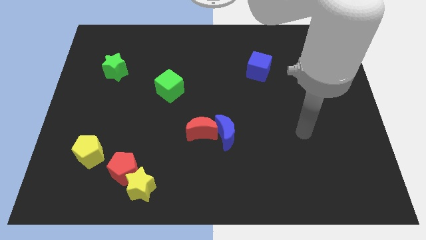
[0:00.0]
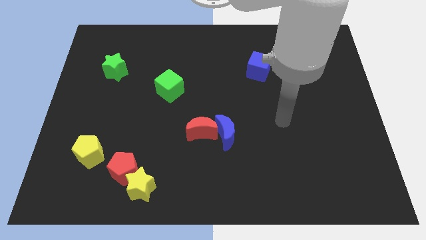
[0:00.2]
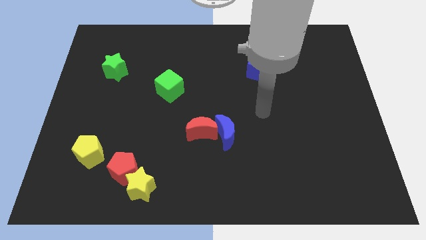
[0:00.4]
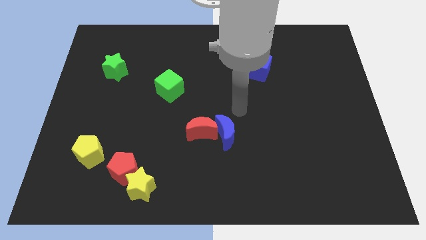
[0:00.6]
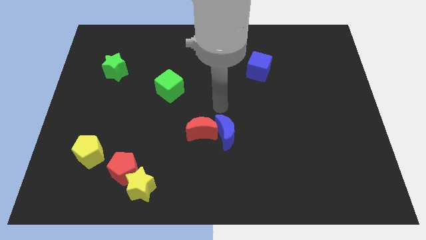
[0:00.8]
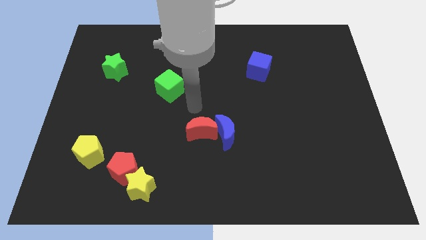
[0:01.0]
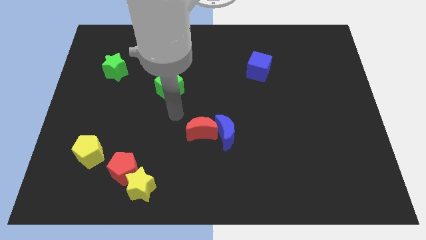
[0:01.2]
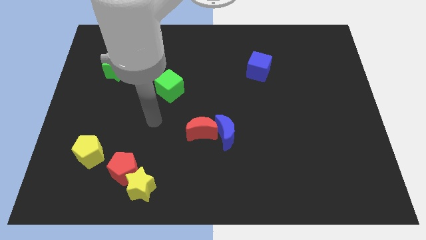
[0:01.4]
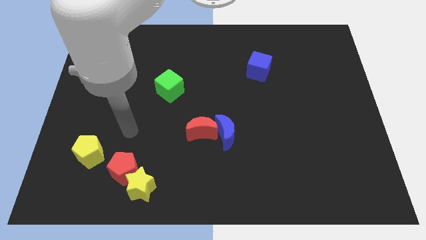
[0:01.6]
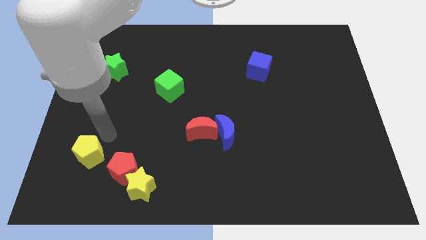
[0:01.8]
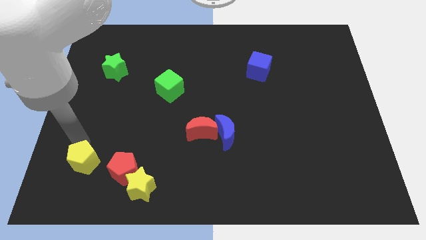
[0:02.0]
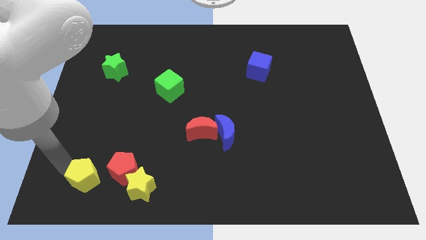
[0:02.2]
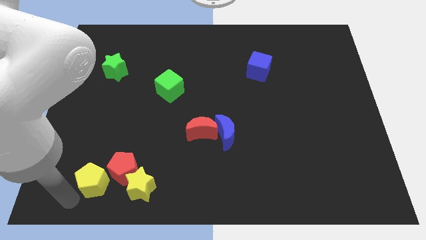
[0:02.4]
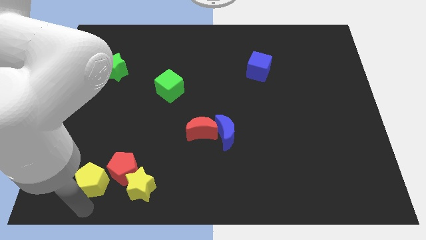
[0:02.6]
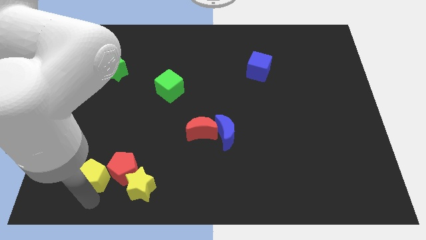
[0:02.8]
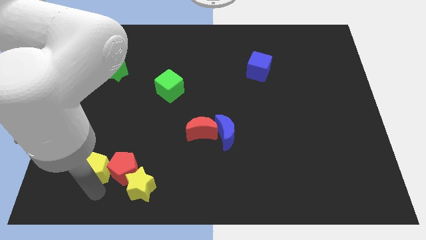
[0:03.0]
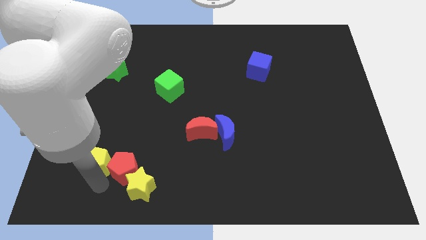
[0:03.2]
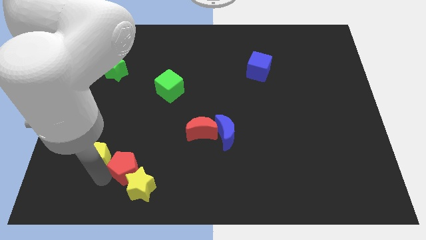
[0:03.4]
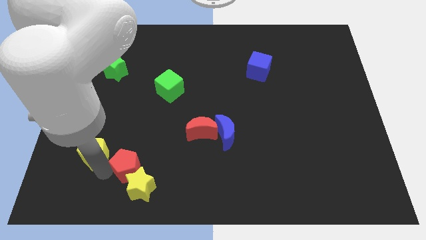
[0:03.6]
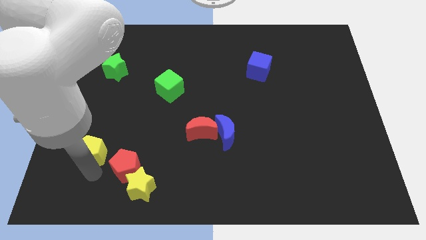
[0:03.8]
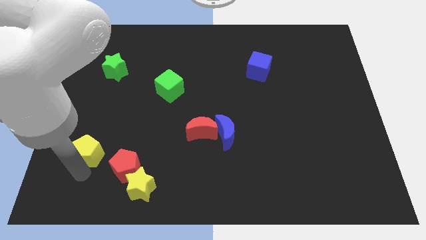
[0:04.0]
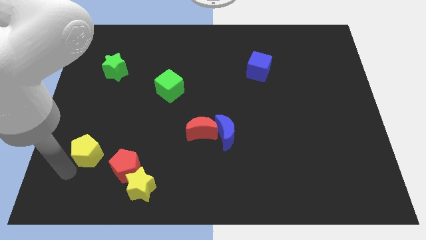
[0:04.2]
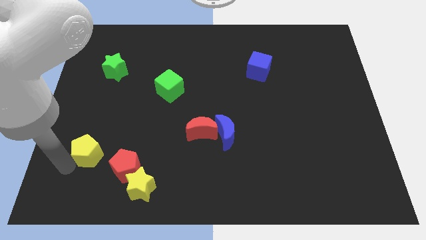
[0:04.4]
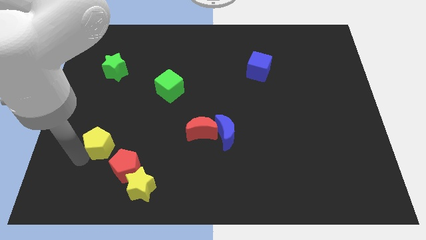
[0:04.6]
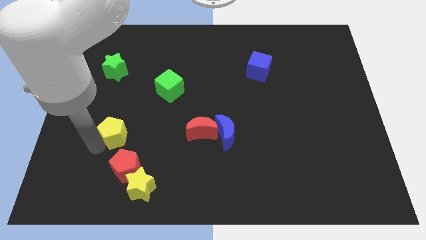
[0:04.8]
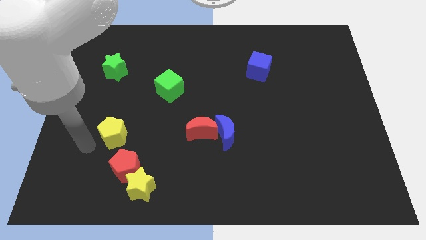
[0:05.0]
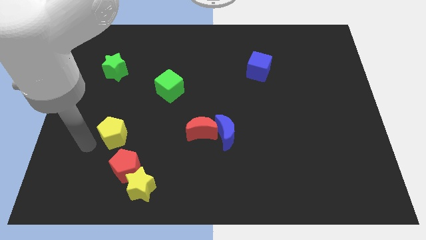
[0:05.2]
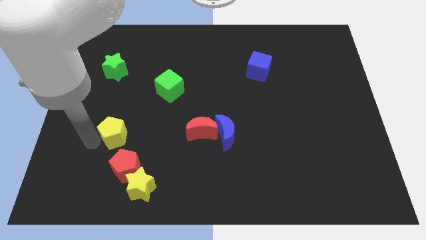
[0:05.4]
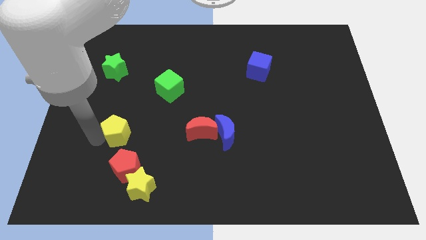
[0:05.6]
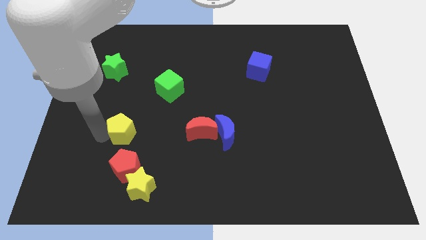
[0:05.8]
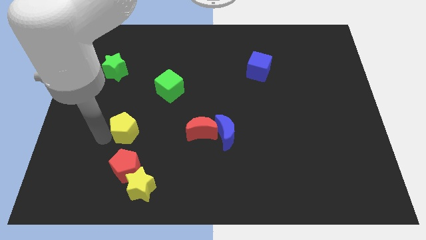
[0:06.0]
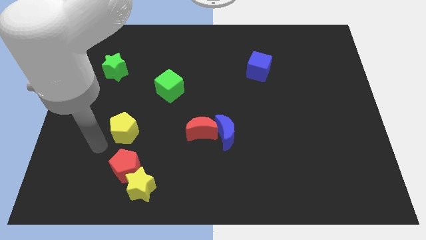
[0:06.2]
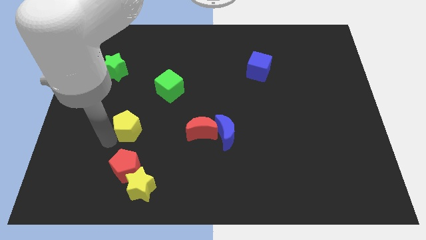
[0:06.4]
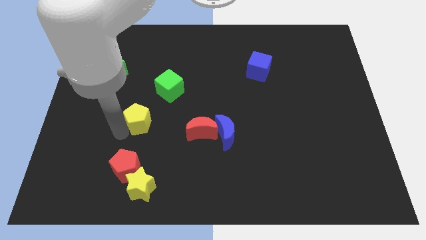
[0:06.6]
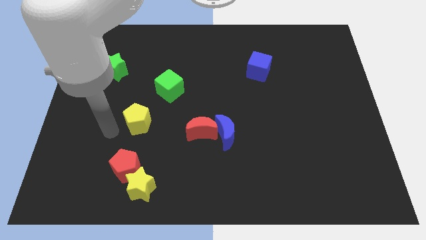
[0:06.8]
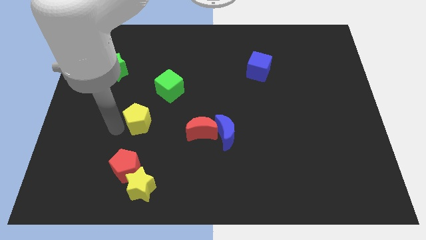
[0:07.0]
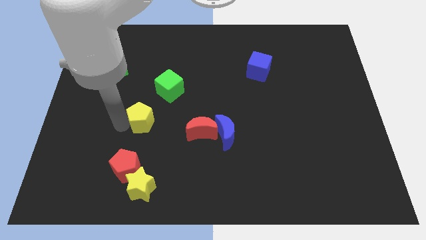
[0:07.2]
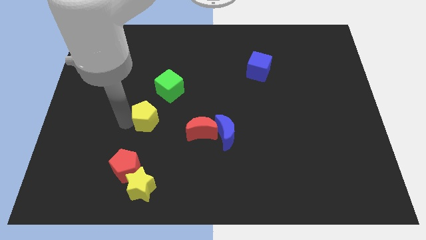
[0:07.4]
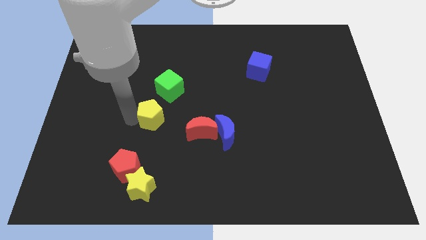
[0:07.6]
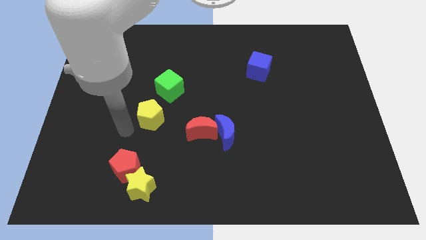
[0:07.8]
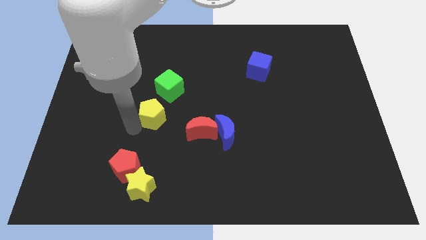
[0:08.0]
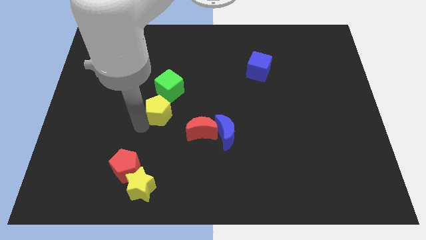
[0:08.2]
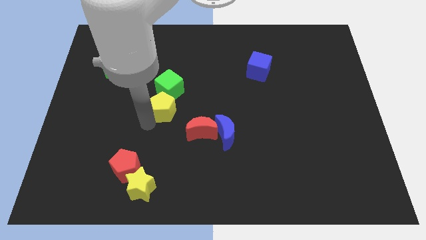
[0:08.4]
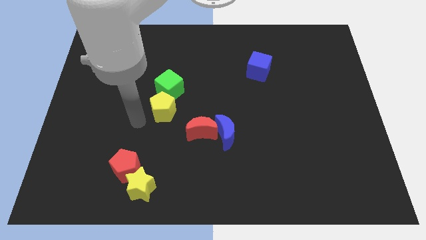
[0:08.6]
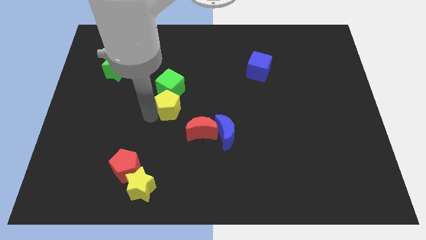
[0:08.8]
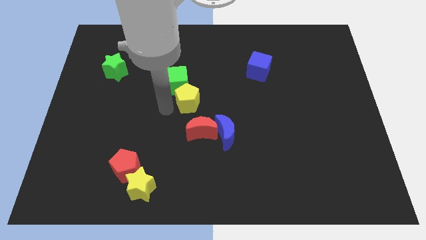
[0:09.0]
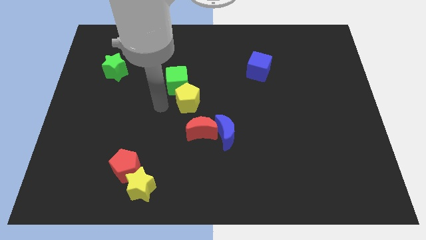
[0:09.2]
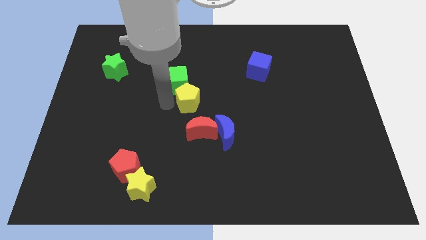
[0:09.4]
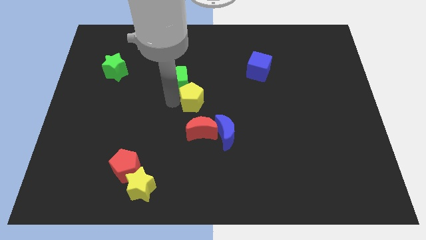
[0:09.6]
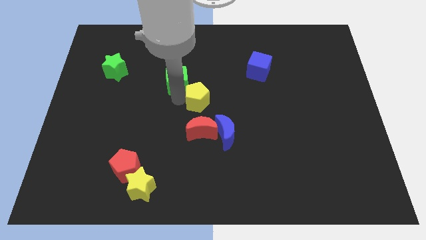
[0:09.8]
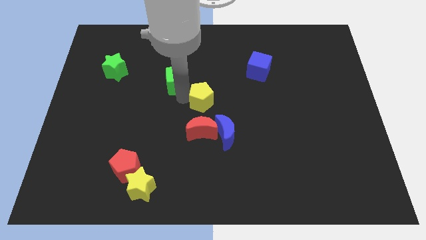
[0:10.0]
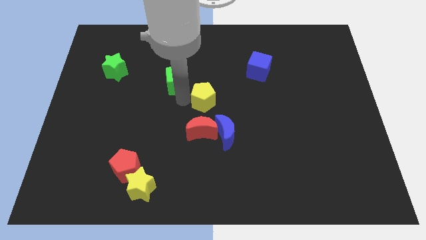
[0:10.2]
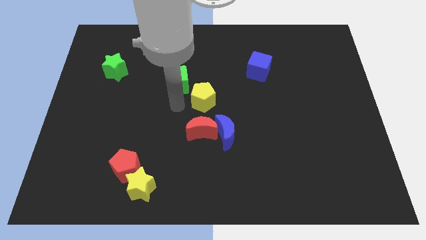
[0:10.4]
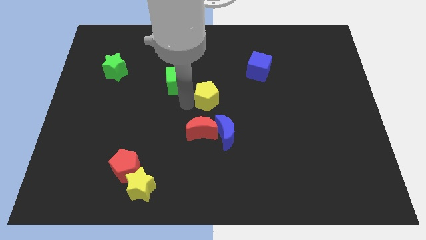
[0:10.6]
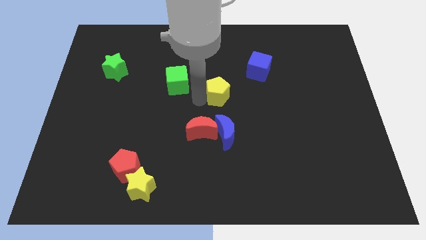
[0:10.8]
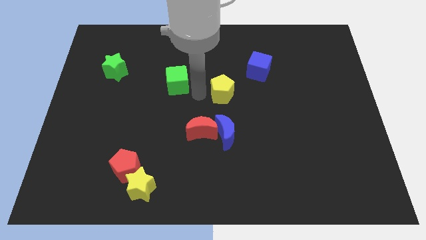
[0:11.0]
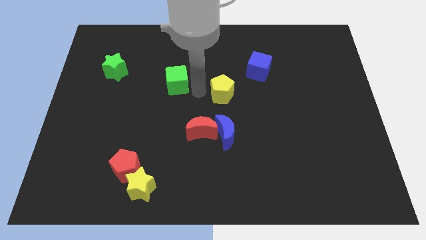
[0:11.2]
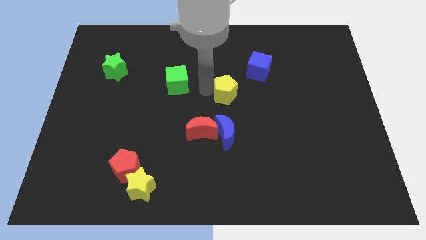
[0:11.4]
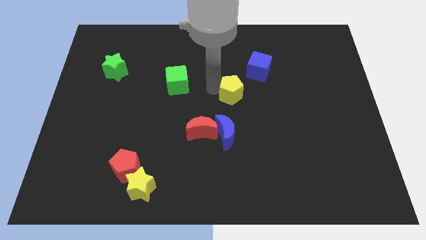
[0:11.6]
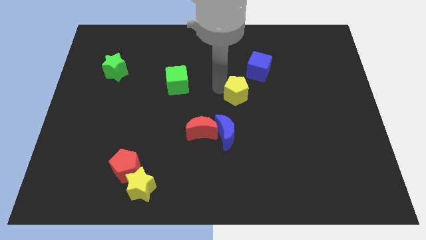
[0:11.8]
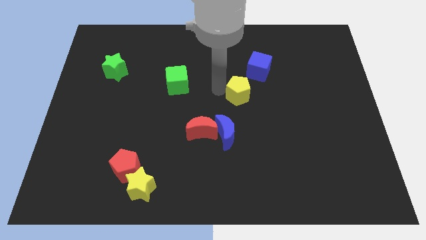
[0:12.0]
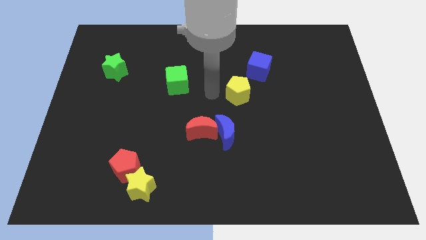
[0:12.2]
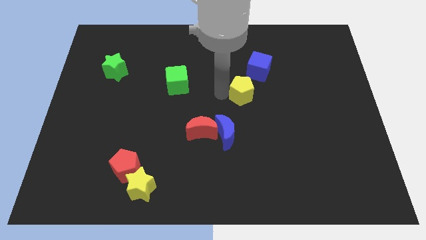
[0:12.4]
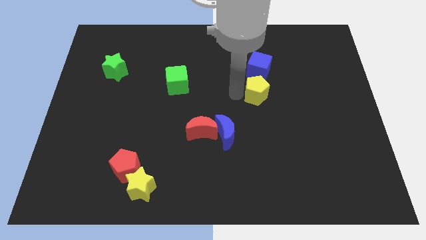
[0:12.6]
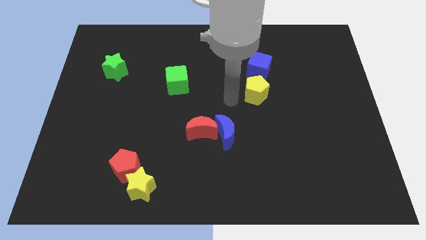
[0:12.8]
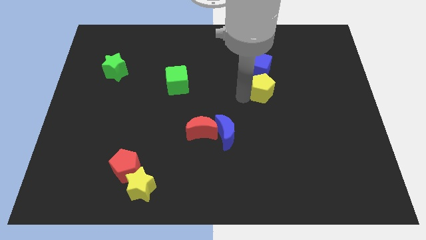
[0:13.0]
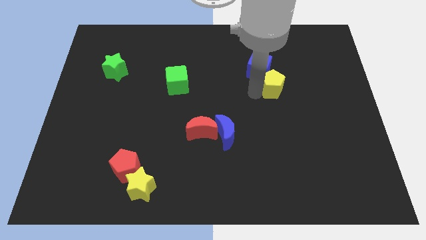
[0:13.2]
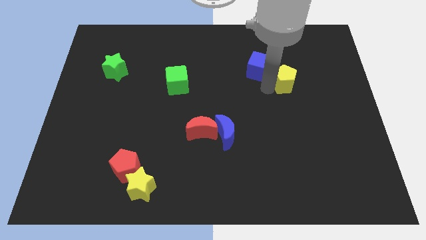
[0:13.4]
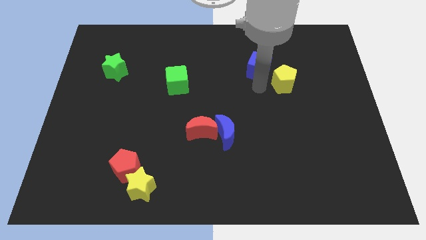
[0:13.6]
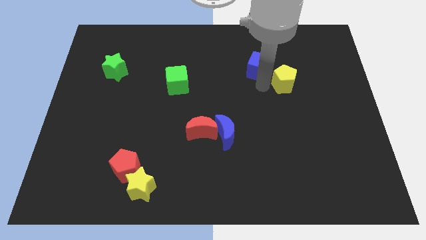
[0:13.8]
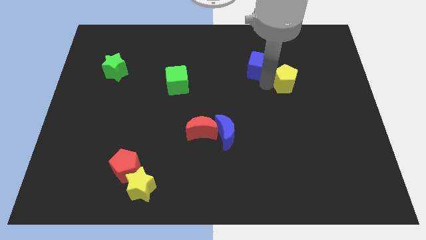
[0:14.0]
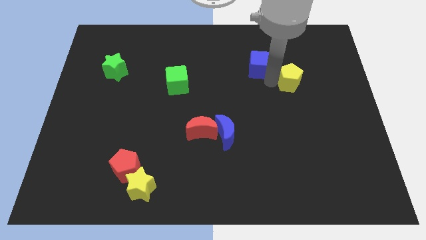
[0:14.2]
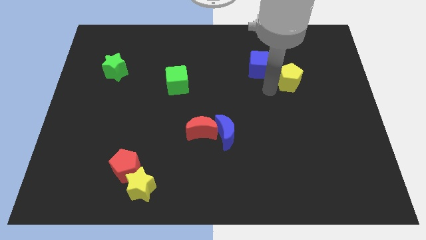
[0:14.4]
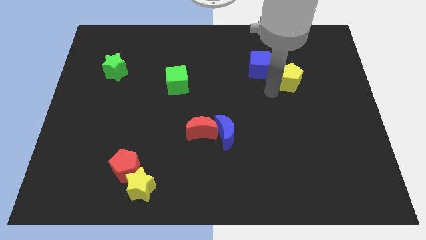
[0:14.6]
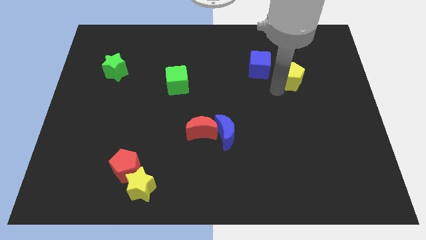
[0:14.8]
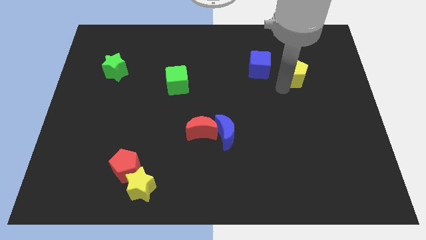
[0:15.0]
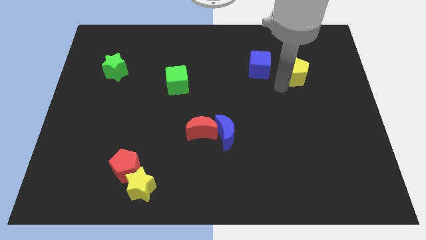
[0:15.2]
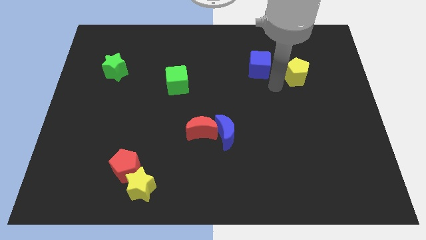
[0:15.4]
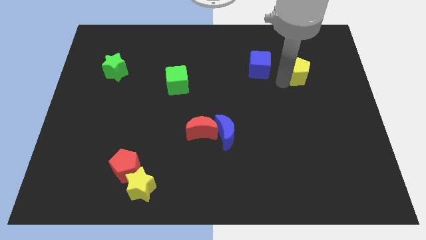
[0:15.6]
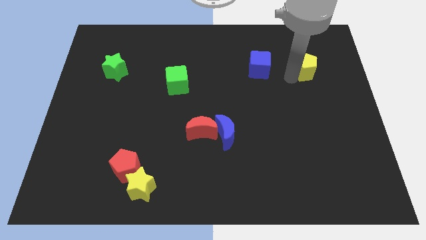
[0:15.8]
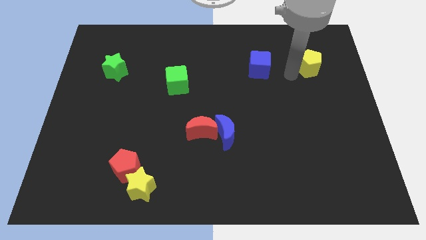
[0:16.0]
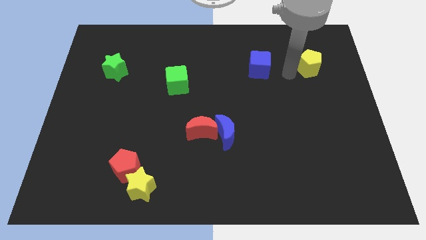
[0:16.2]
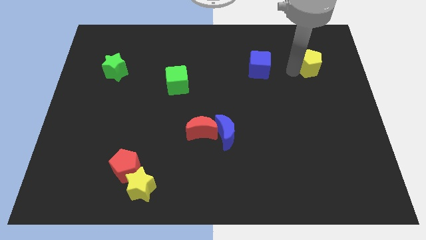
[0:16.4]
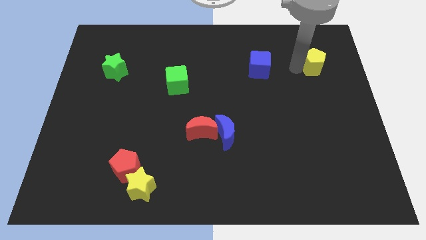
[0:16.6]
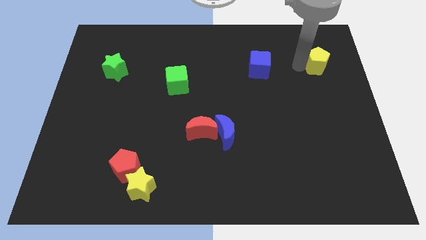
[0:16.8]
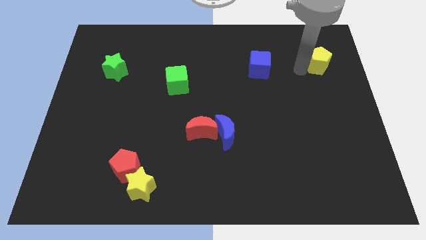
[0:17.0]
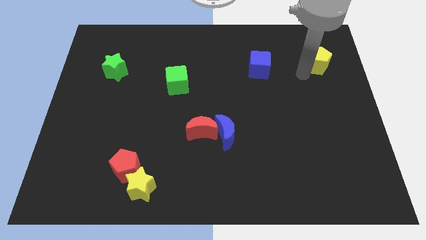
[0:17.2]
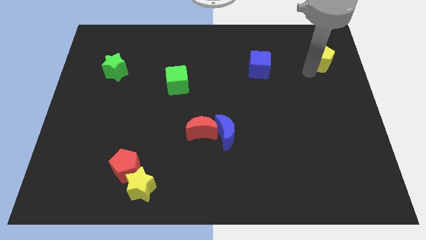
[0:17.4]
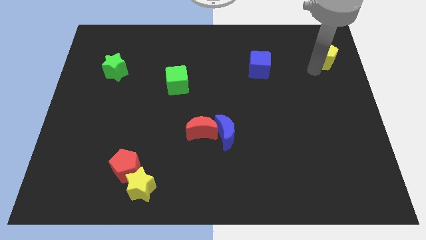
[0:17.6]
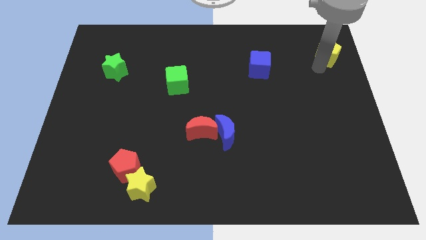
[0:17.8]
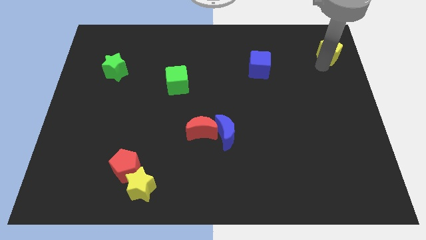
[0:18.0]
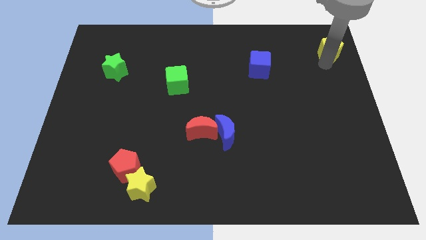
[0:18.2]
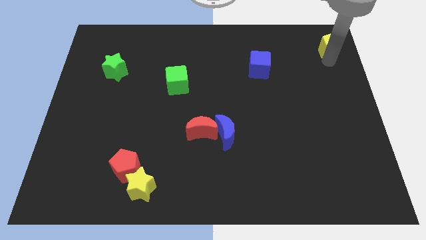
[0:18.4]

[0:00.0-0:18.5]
put the yellow pentagon to the upper right corner
